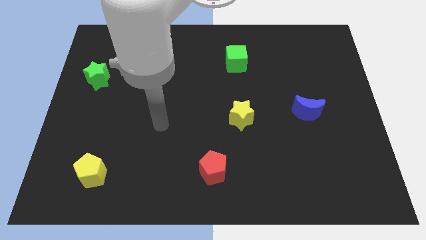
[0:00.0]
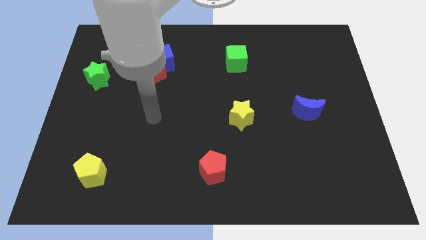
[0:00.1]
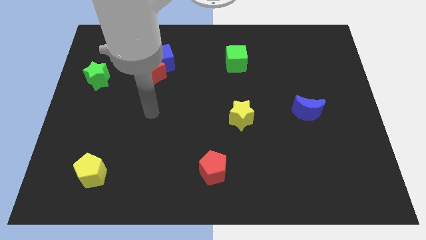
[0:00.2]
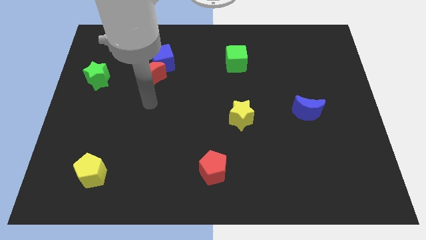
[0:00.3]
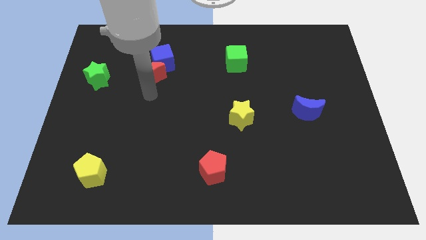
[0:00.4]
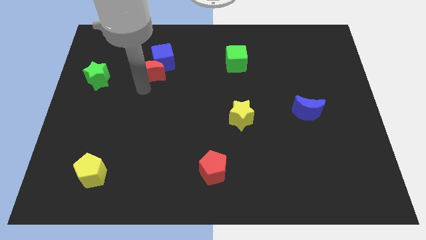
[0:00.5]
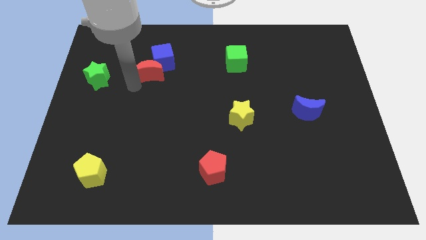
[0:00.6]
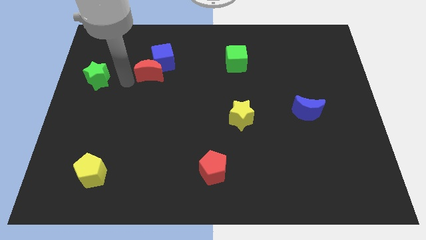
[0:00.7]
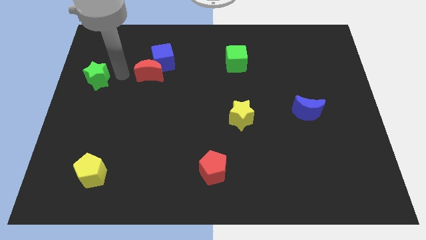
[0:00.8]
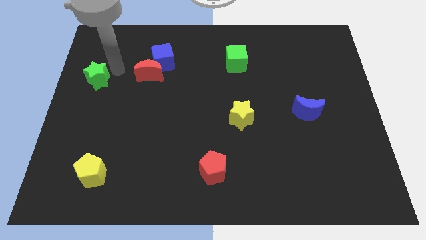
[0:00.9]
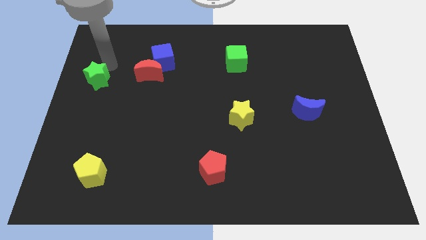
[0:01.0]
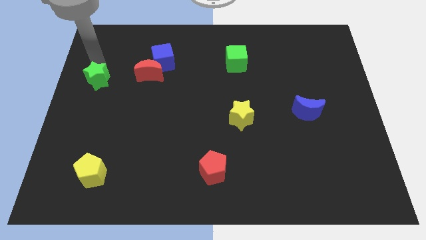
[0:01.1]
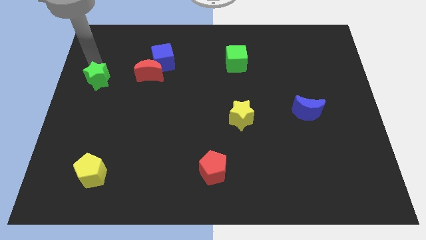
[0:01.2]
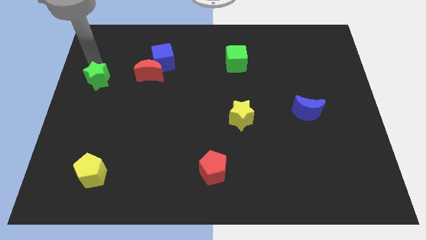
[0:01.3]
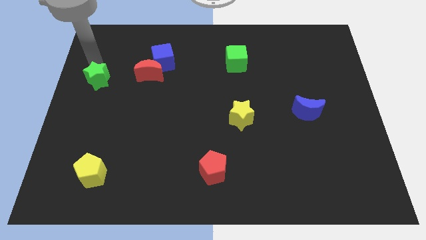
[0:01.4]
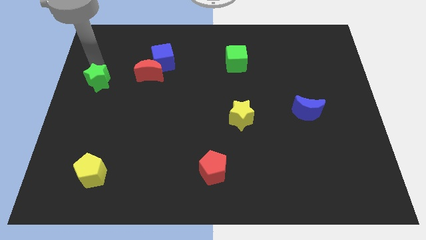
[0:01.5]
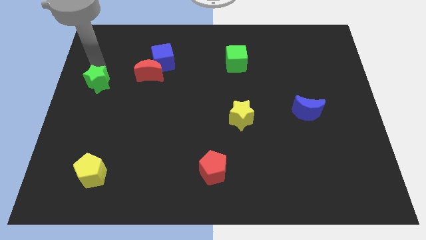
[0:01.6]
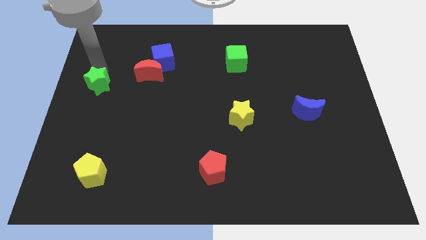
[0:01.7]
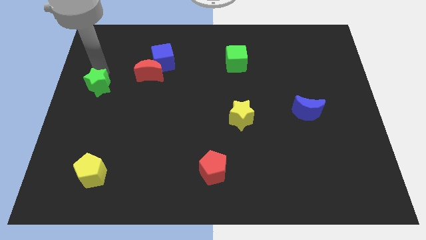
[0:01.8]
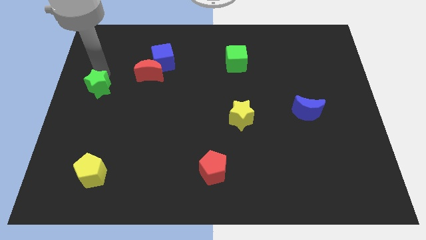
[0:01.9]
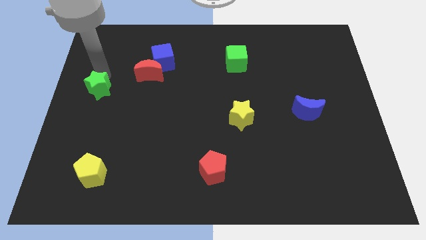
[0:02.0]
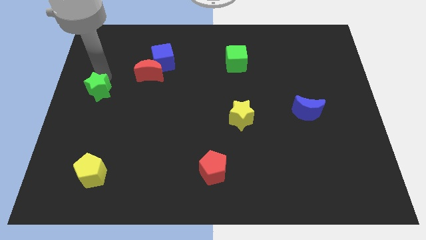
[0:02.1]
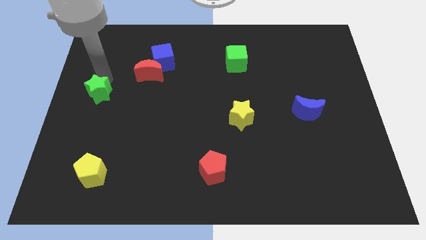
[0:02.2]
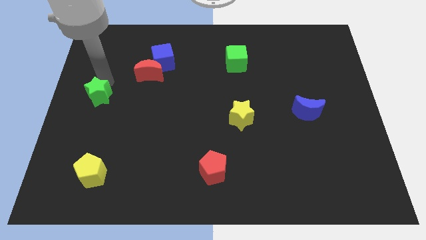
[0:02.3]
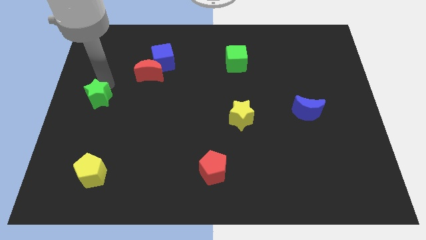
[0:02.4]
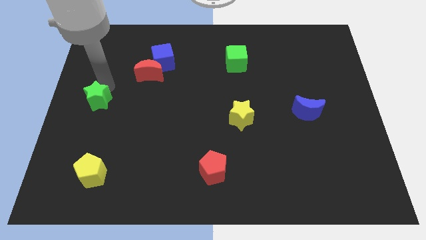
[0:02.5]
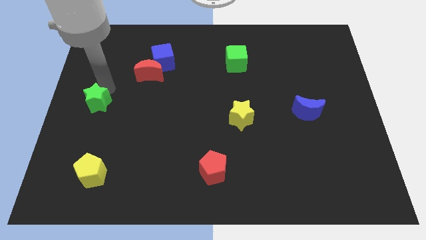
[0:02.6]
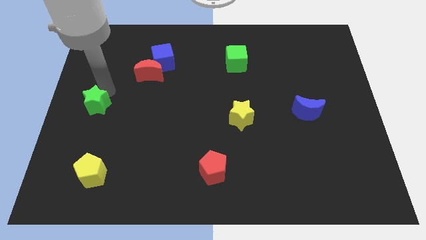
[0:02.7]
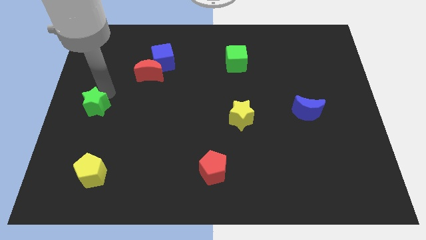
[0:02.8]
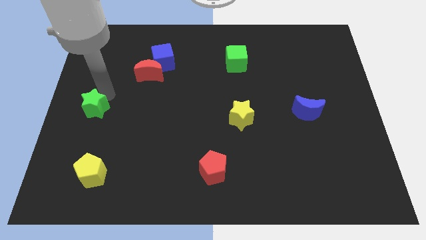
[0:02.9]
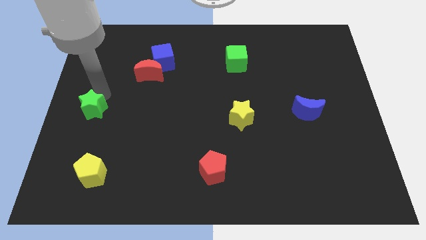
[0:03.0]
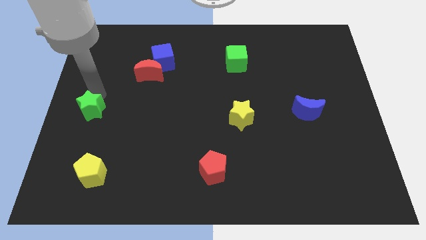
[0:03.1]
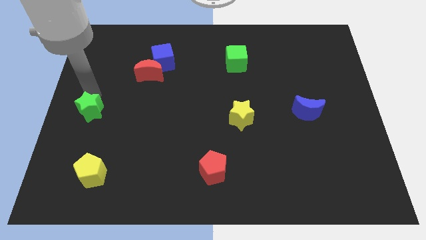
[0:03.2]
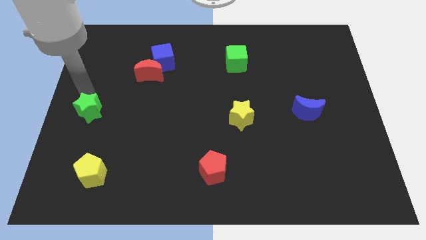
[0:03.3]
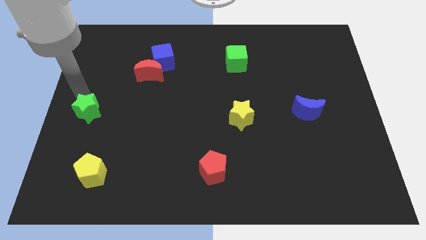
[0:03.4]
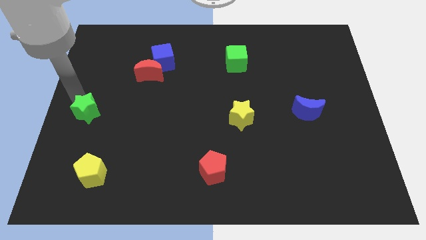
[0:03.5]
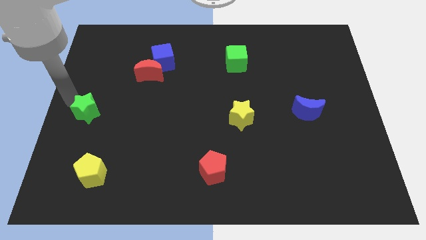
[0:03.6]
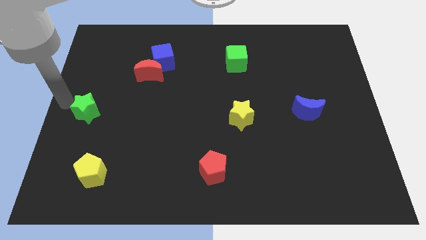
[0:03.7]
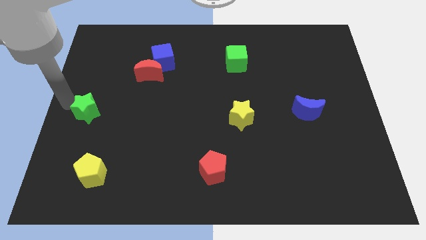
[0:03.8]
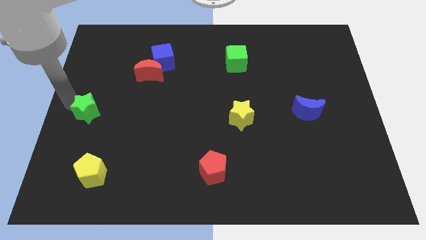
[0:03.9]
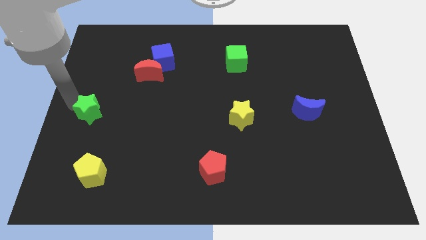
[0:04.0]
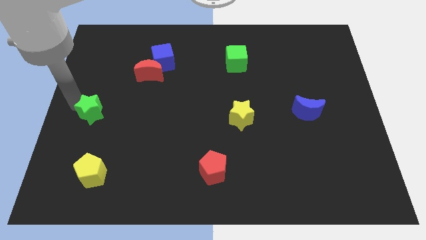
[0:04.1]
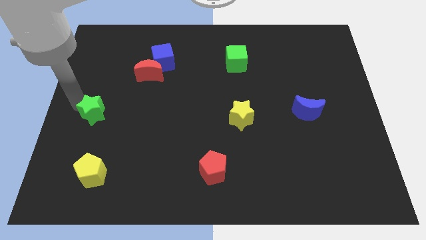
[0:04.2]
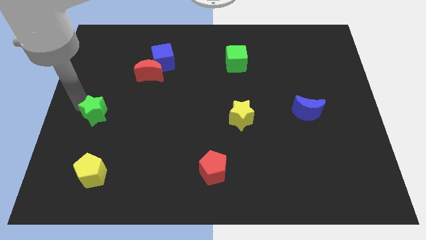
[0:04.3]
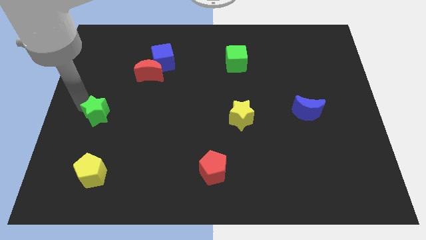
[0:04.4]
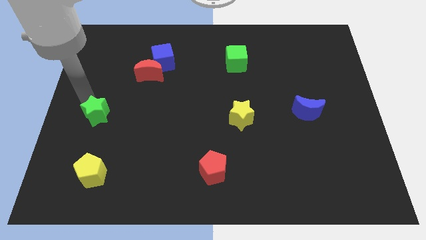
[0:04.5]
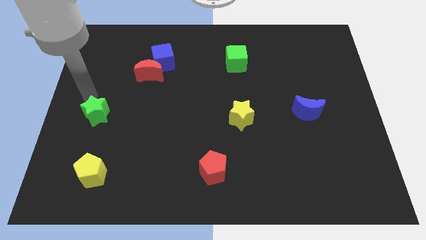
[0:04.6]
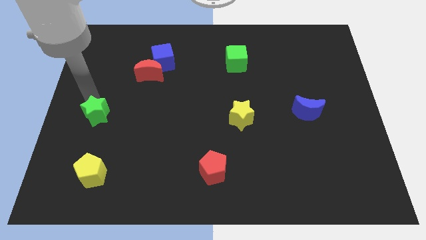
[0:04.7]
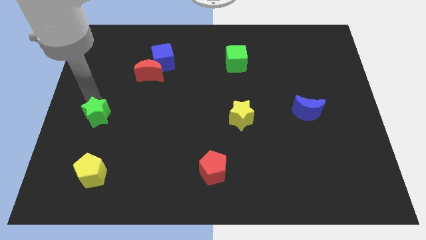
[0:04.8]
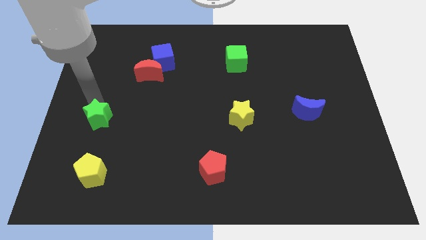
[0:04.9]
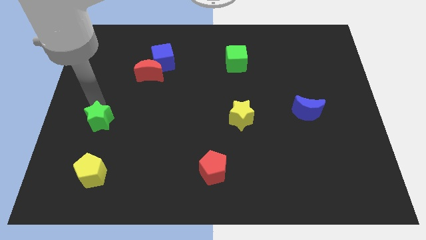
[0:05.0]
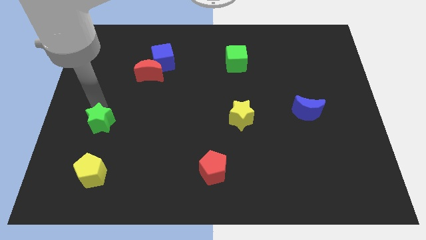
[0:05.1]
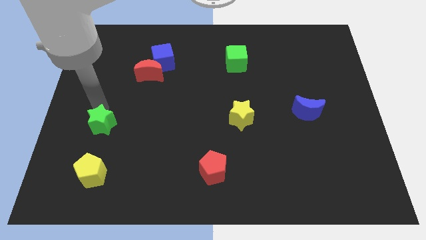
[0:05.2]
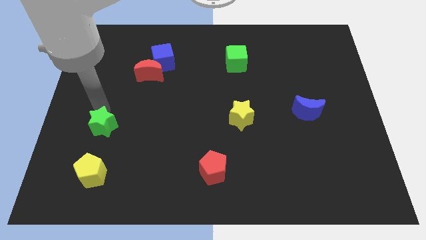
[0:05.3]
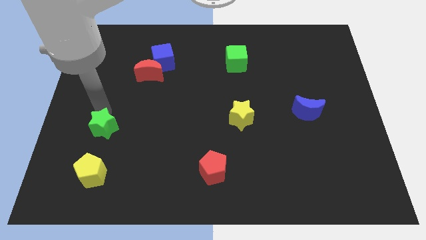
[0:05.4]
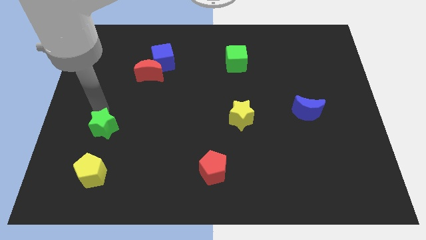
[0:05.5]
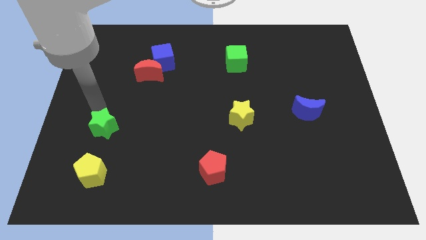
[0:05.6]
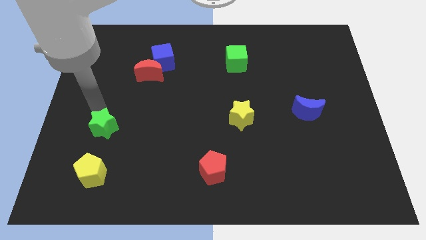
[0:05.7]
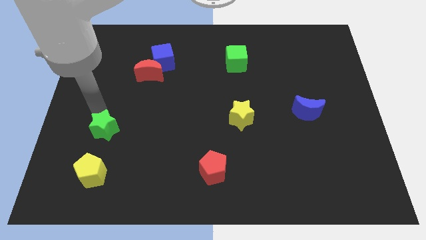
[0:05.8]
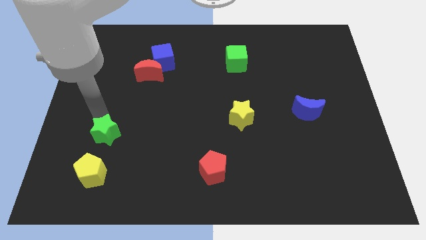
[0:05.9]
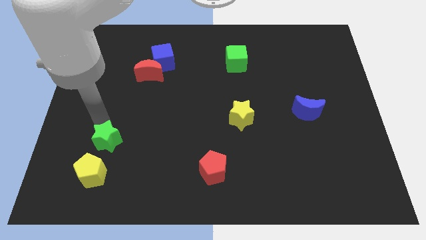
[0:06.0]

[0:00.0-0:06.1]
push the green star to the top right of the yellow pentagon

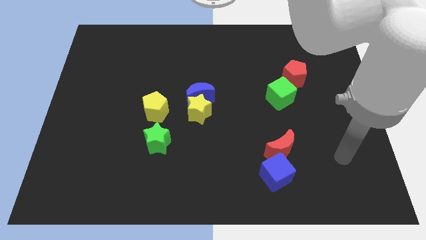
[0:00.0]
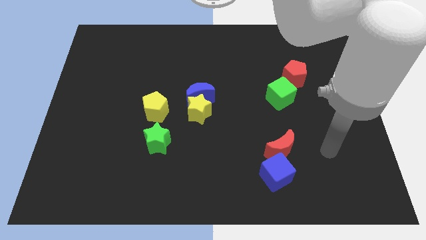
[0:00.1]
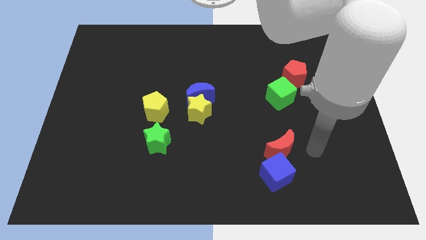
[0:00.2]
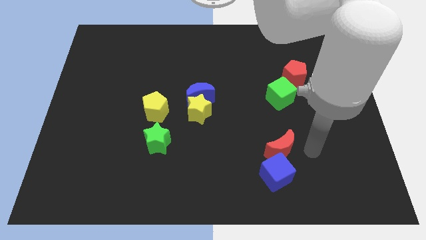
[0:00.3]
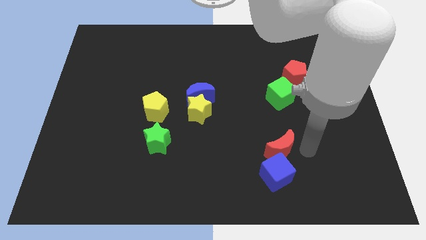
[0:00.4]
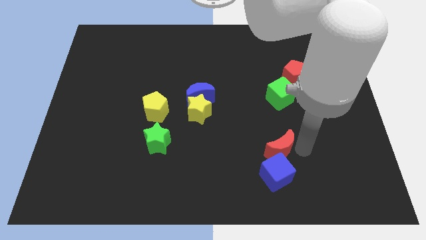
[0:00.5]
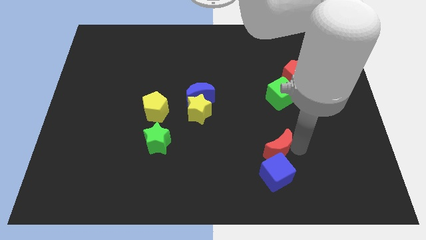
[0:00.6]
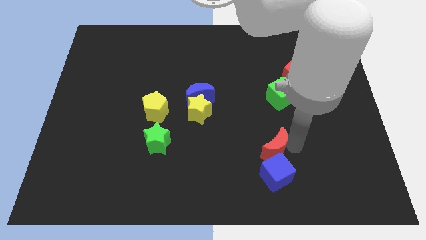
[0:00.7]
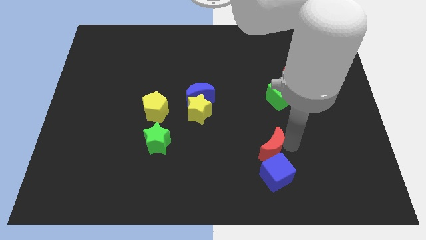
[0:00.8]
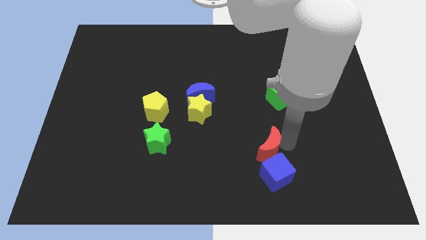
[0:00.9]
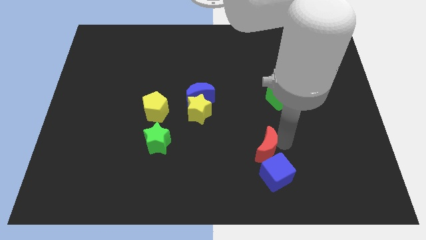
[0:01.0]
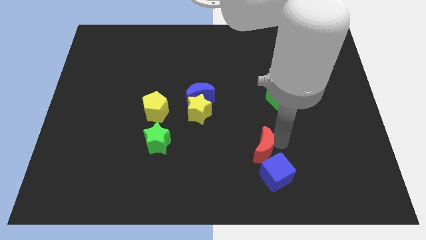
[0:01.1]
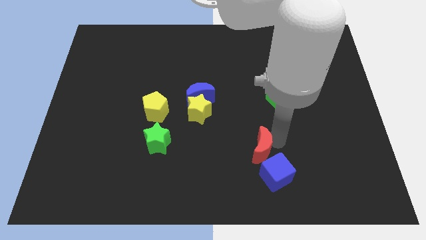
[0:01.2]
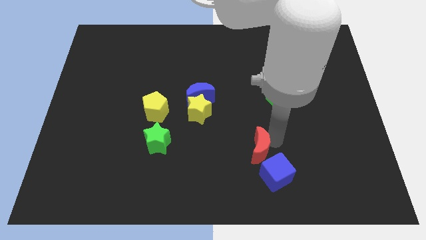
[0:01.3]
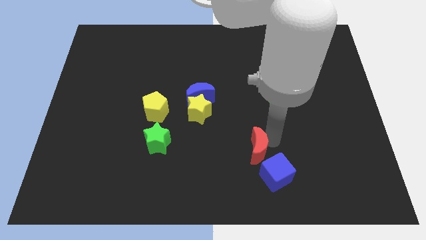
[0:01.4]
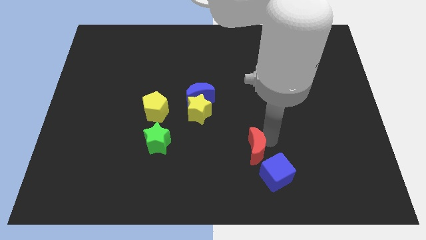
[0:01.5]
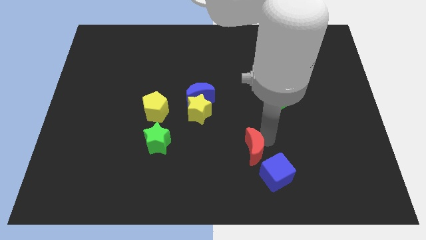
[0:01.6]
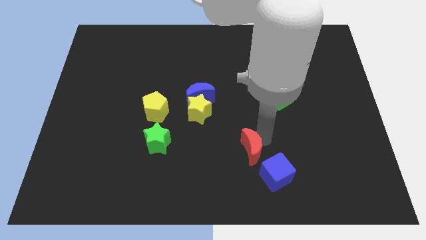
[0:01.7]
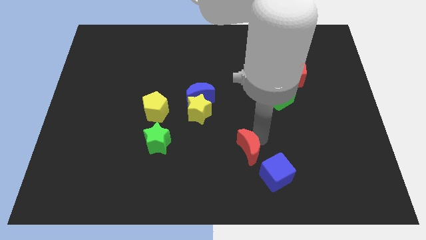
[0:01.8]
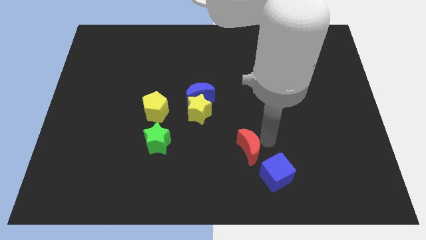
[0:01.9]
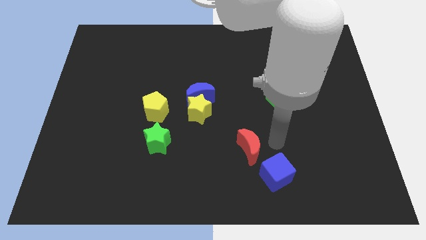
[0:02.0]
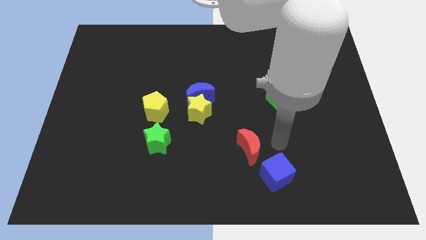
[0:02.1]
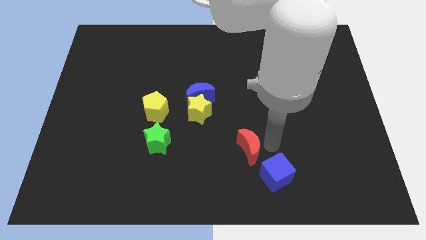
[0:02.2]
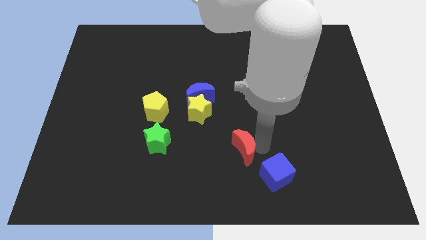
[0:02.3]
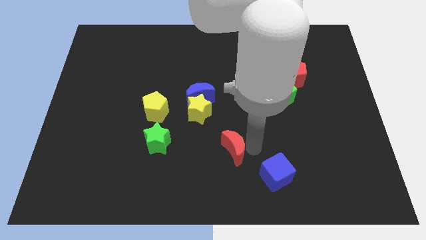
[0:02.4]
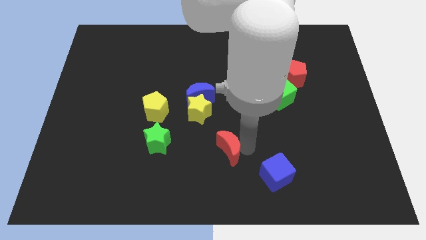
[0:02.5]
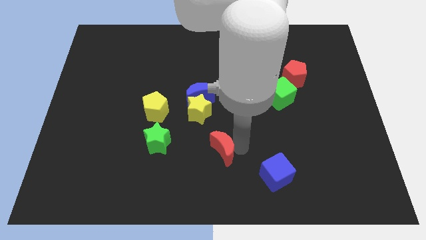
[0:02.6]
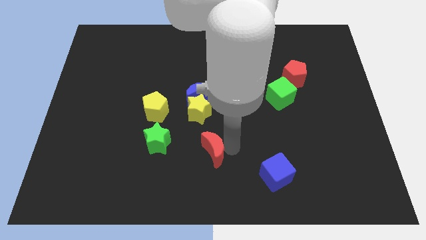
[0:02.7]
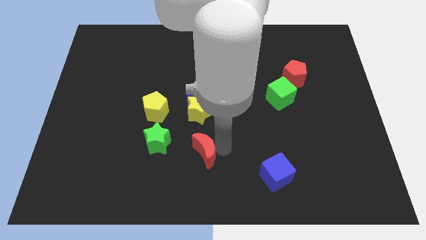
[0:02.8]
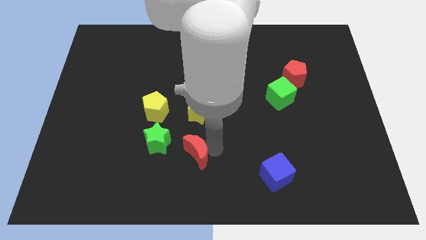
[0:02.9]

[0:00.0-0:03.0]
move the red moon to the bottom right of the green star
